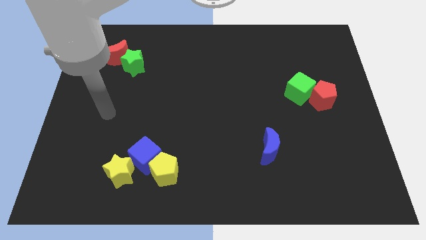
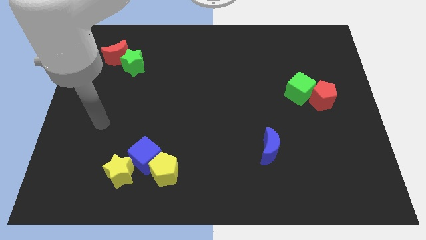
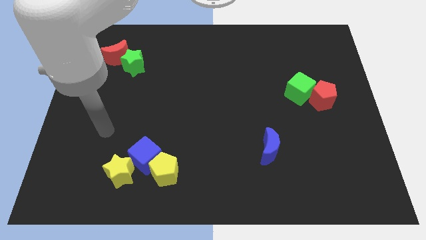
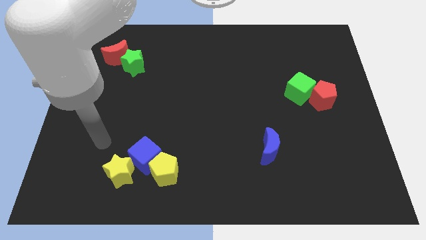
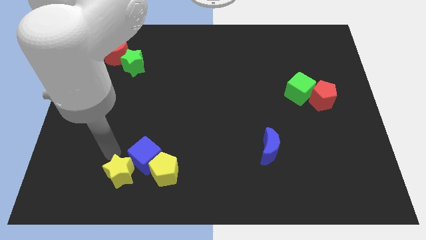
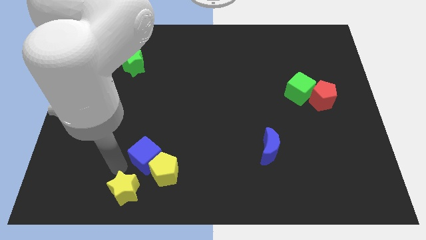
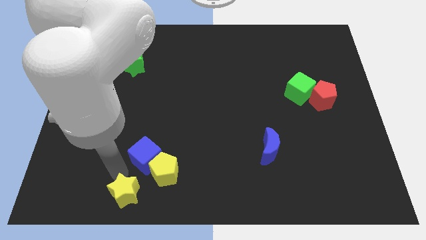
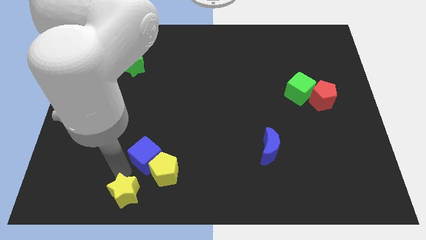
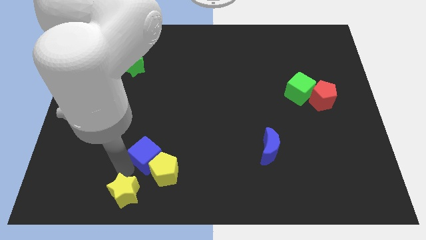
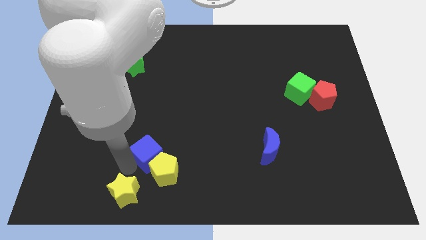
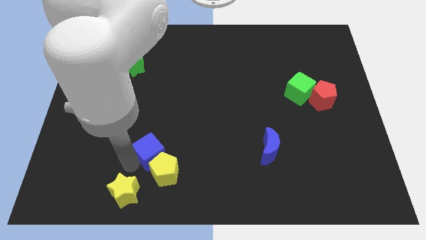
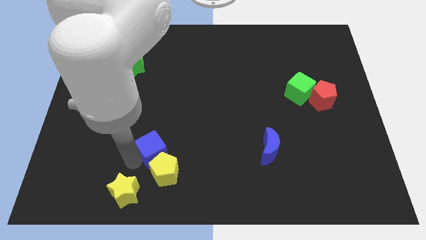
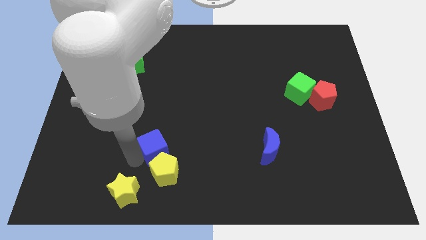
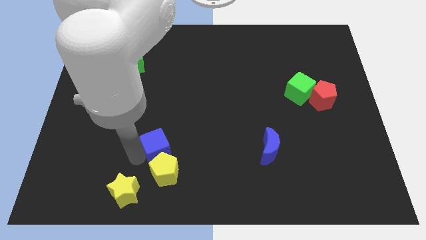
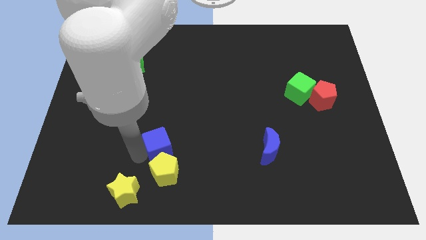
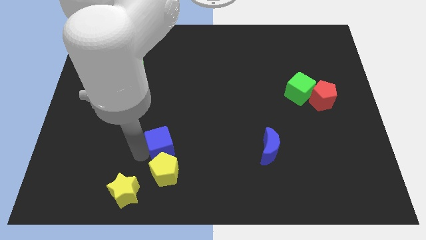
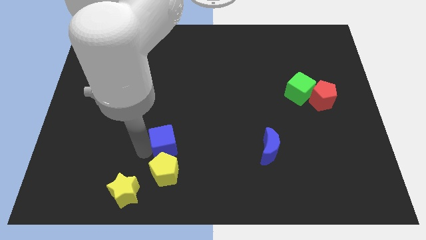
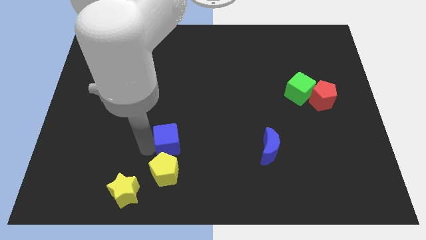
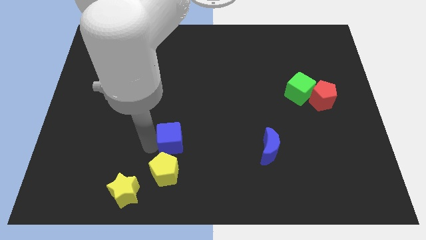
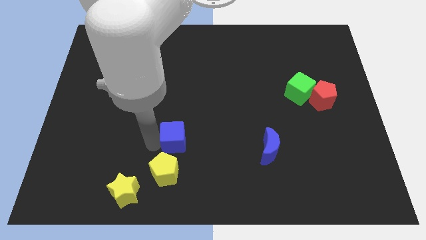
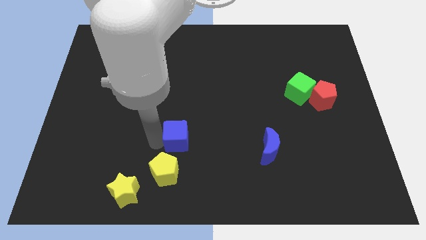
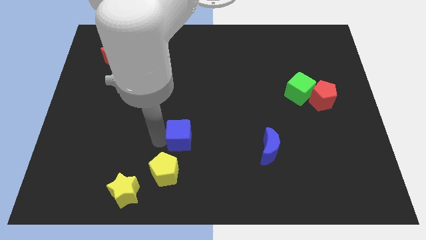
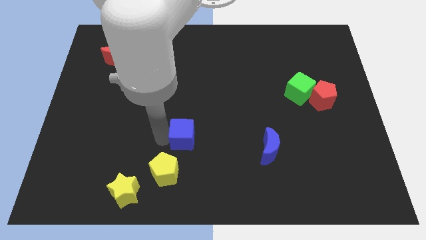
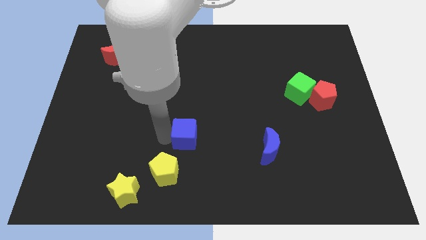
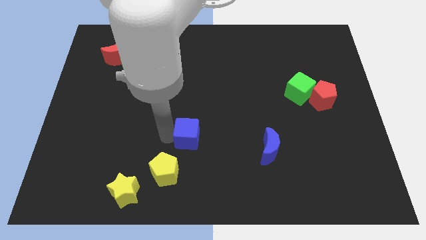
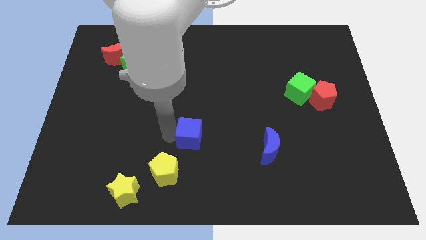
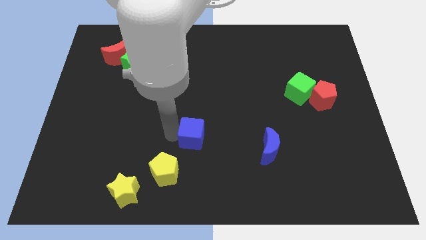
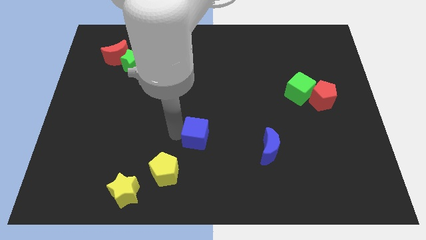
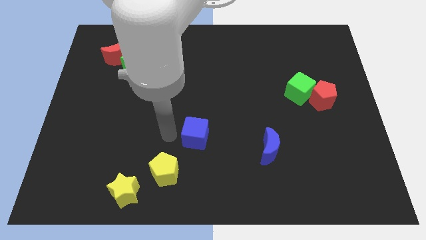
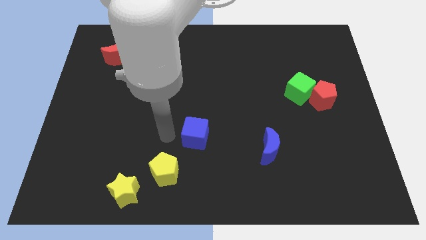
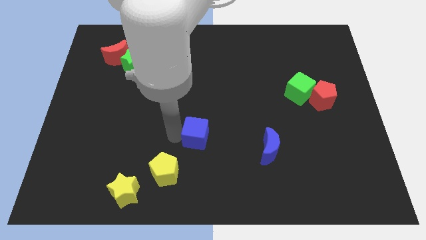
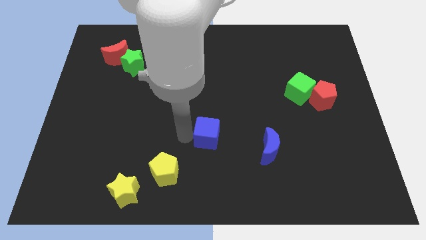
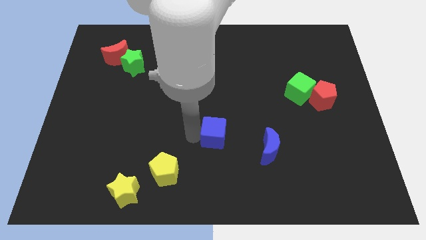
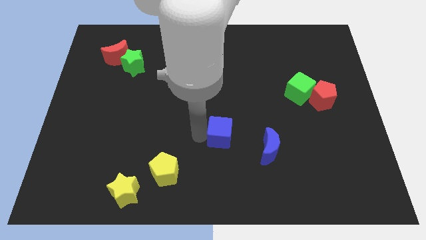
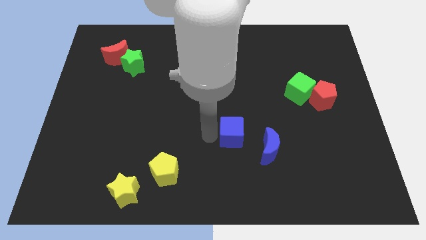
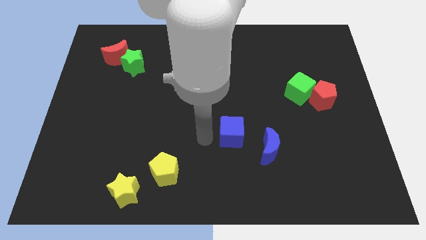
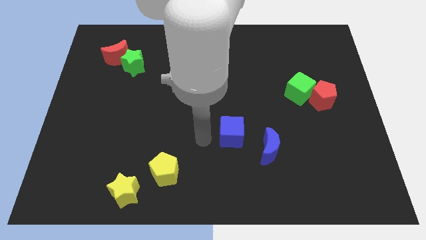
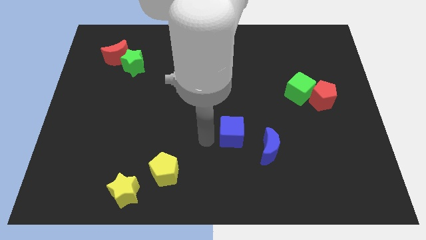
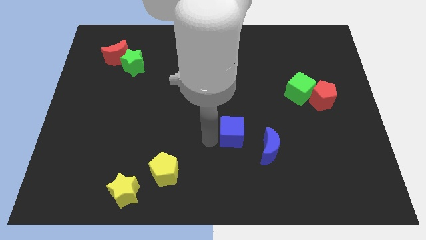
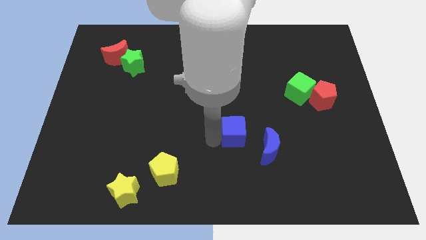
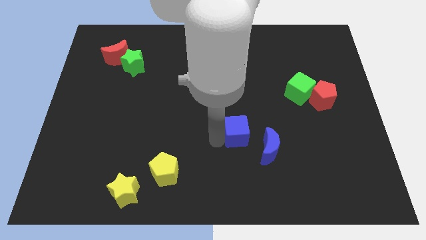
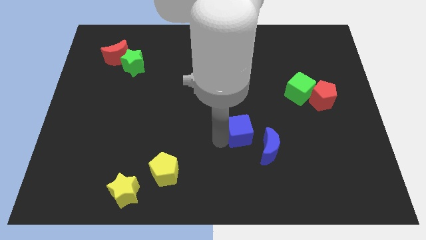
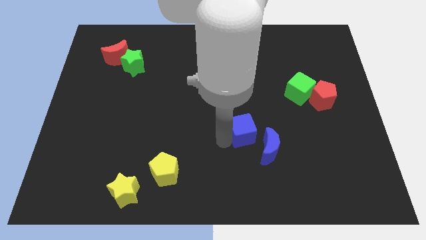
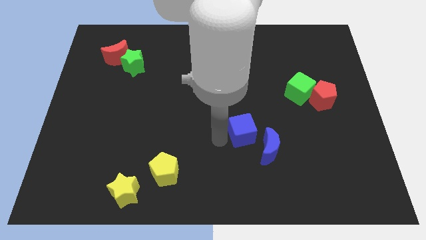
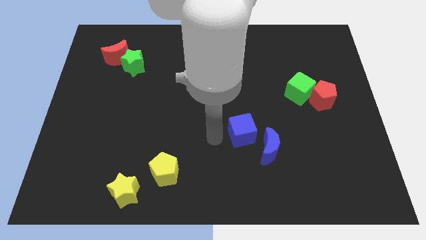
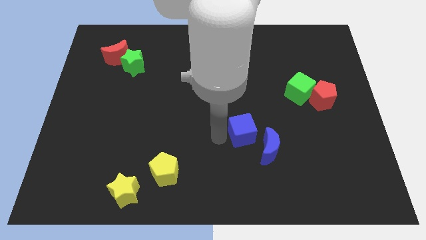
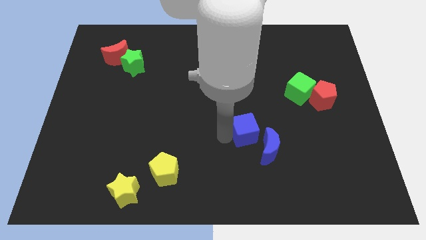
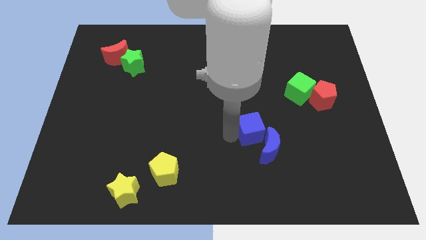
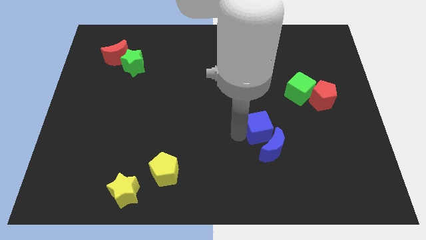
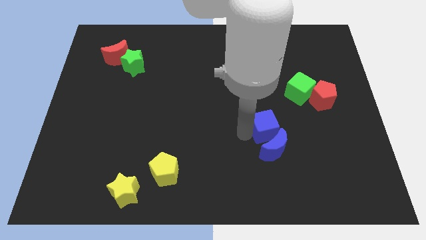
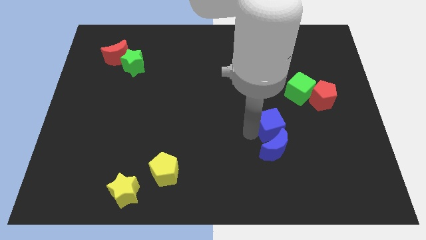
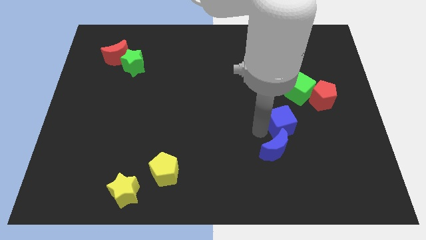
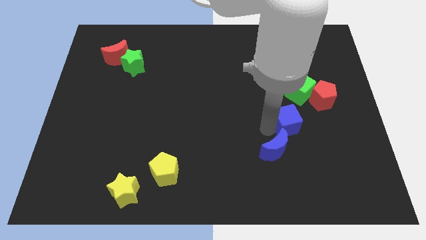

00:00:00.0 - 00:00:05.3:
move the blue cube diagonally down and to the left of the red pentagon

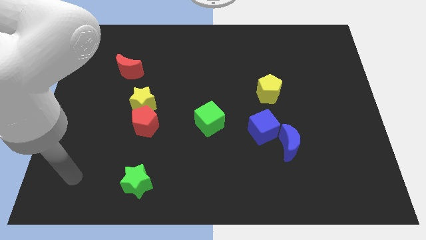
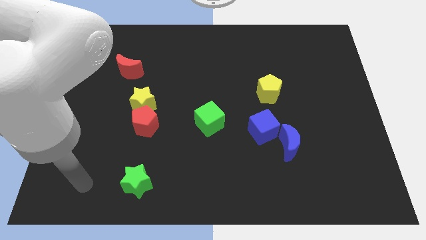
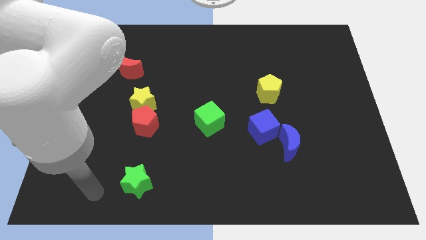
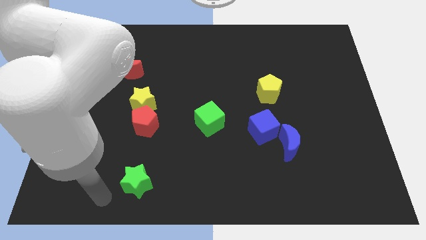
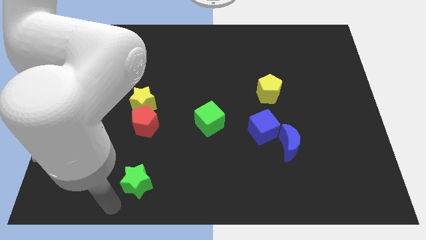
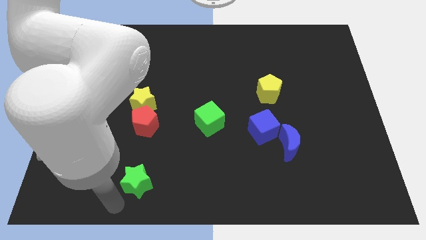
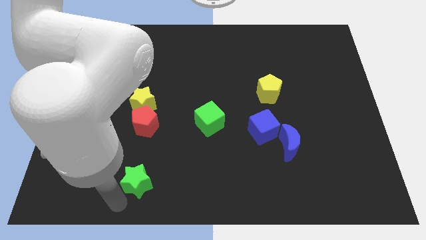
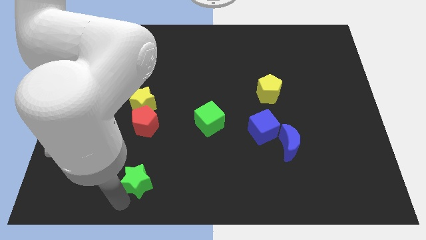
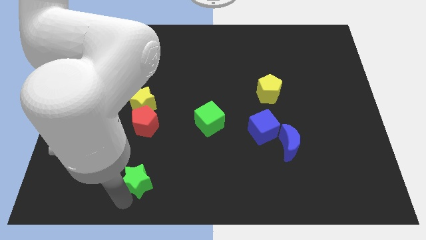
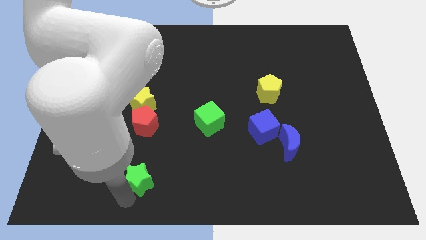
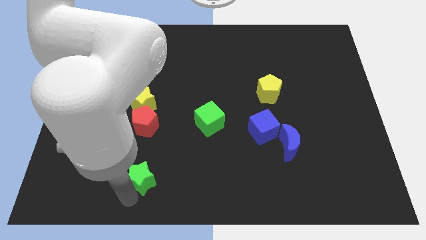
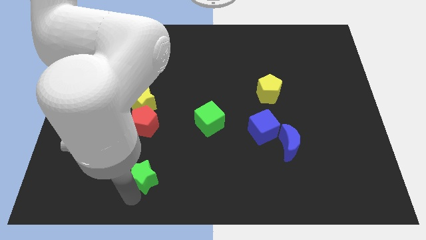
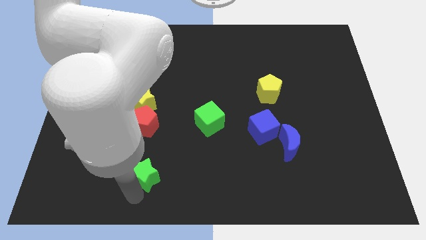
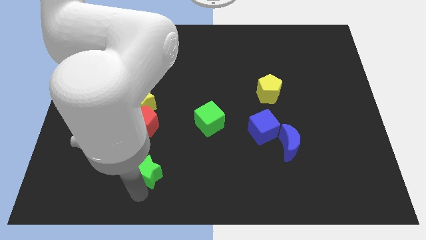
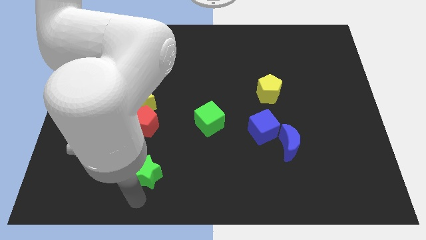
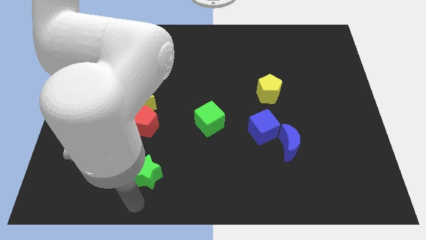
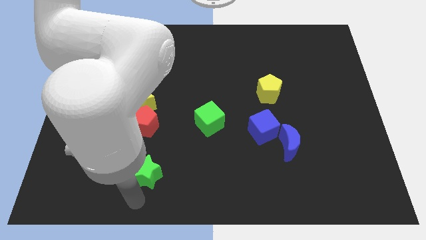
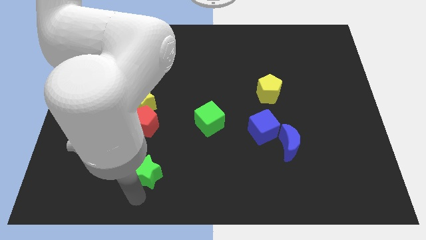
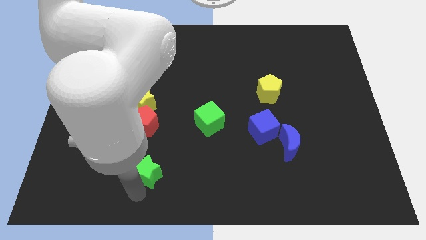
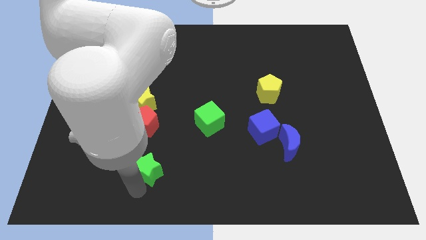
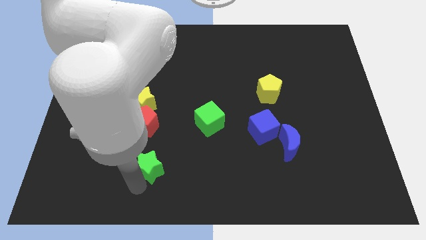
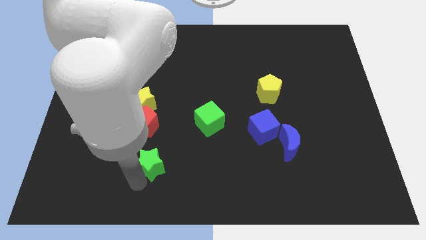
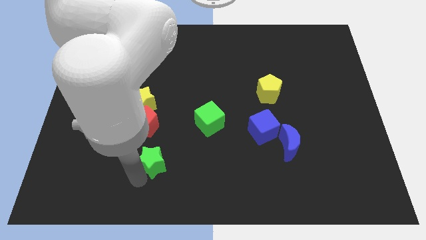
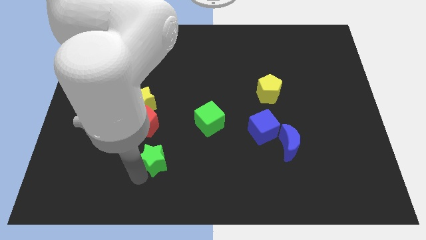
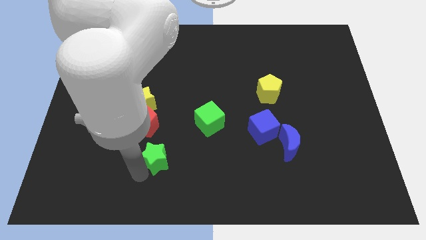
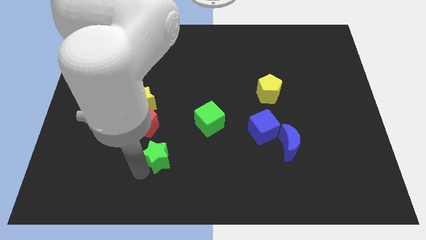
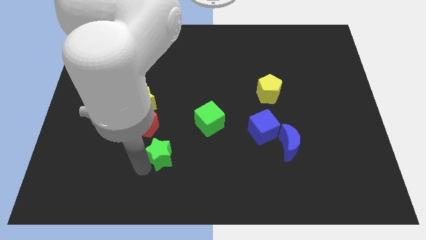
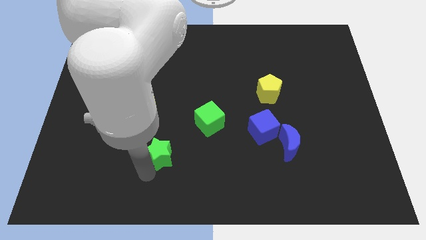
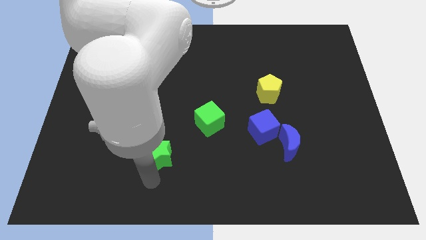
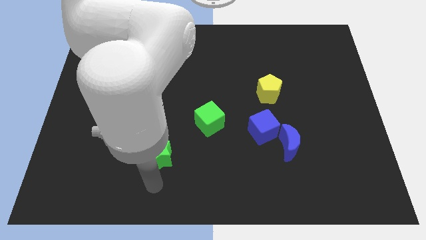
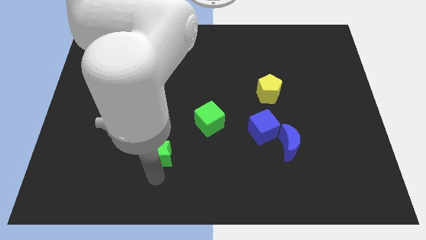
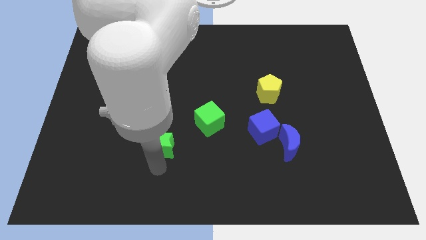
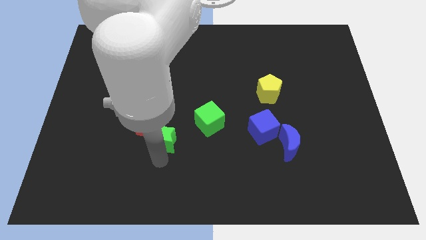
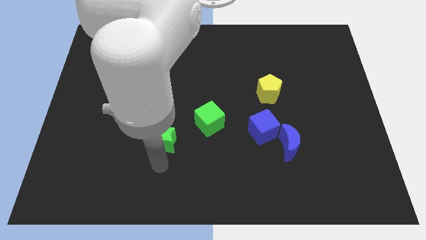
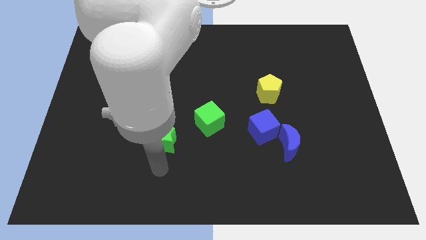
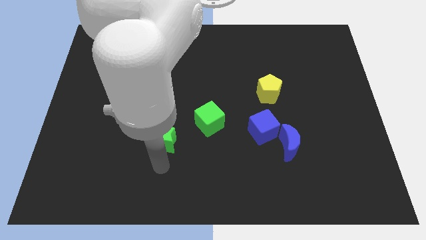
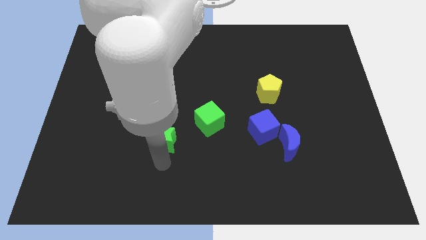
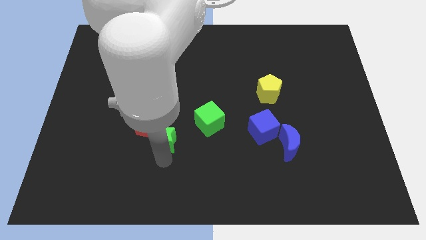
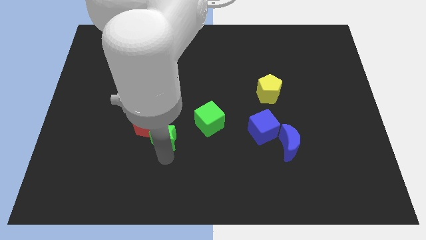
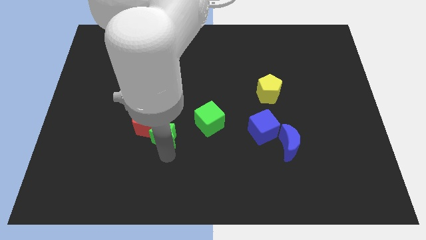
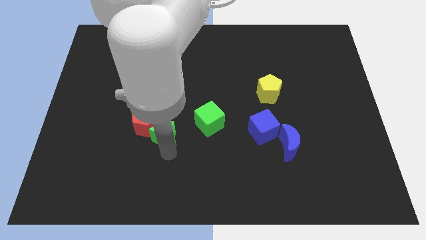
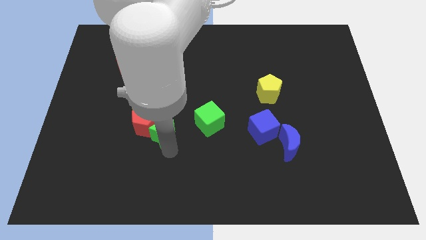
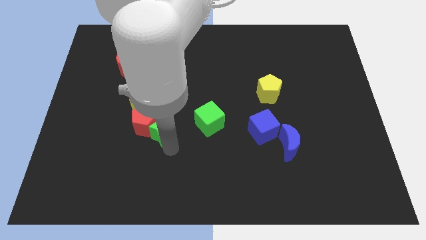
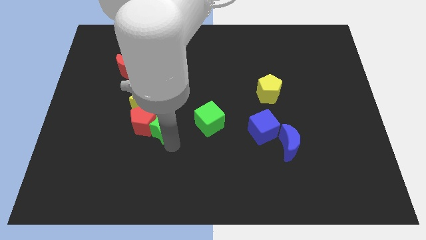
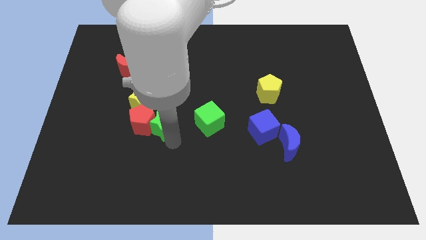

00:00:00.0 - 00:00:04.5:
push the green star to the top right side of the red pentagon
